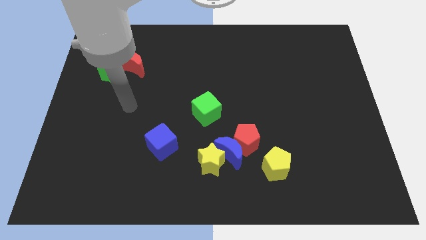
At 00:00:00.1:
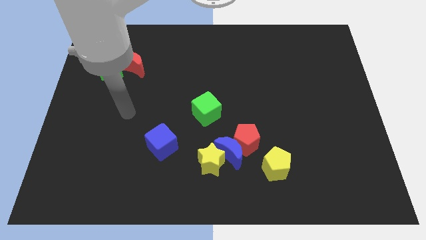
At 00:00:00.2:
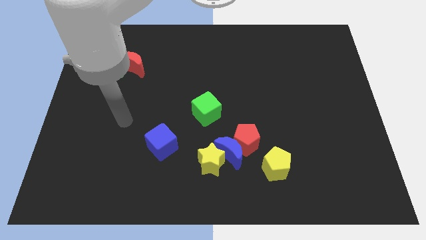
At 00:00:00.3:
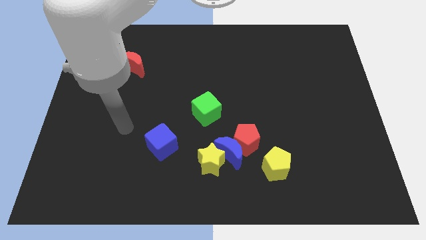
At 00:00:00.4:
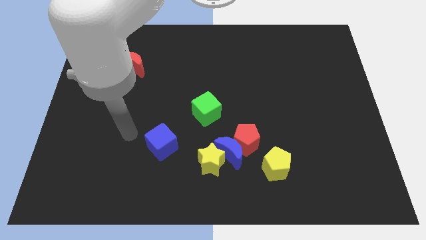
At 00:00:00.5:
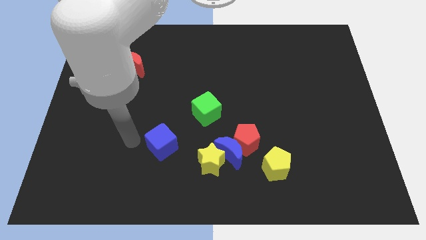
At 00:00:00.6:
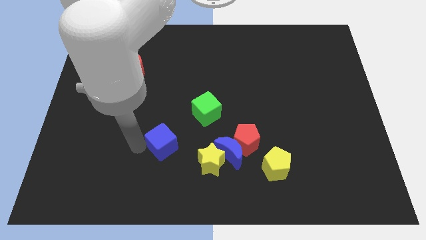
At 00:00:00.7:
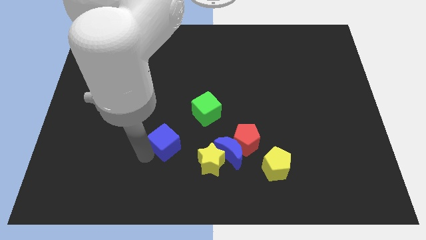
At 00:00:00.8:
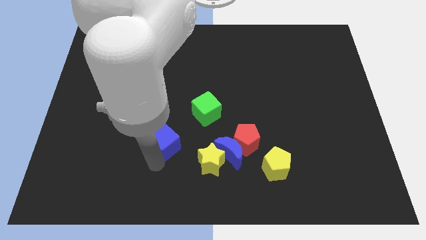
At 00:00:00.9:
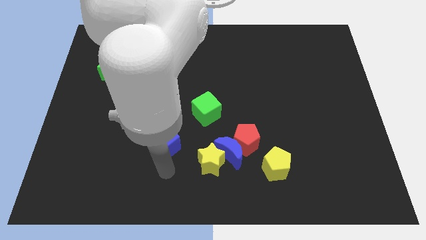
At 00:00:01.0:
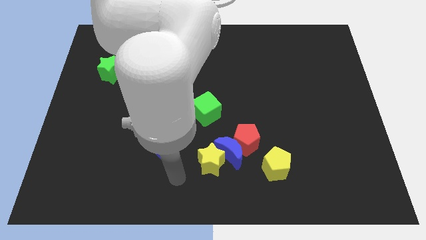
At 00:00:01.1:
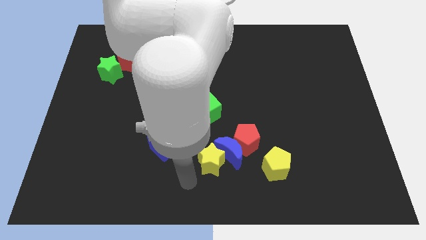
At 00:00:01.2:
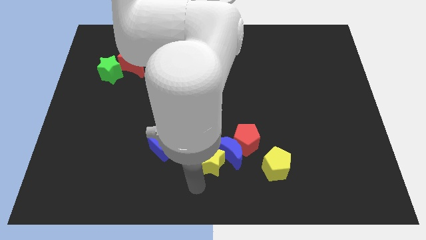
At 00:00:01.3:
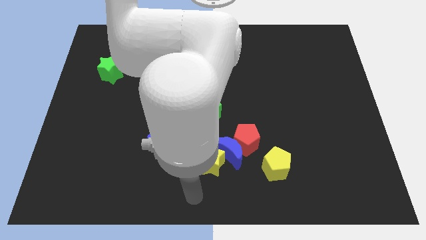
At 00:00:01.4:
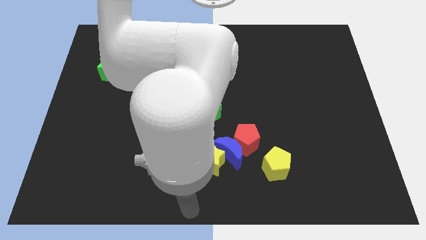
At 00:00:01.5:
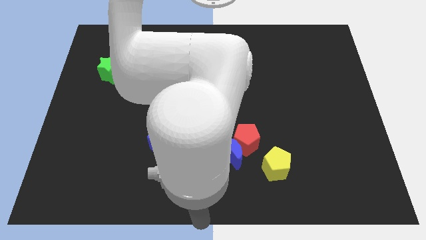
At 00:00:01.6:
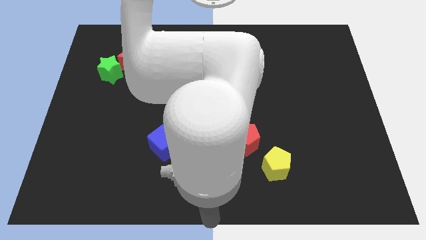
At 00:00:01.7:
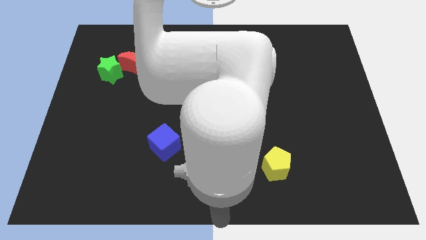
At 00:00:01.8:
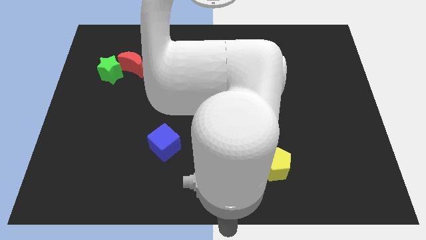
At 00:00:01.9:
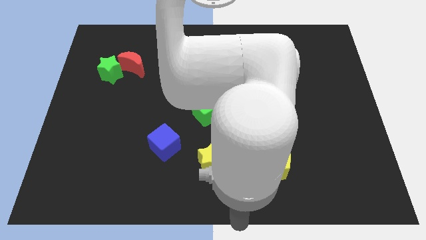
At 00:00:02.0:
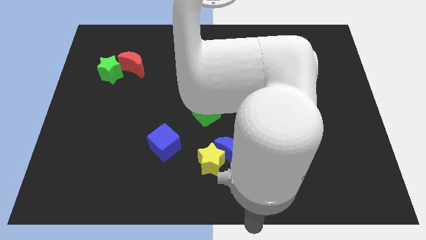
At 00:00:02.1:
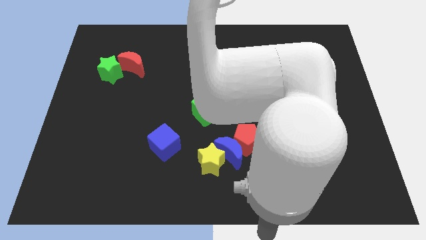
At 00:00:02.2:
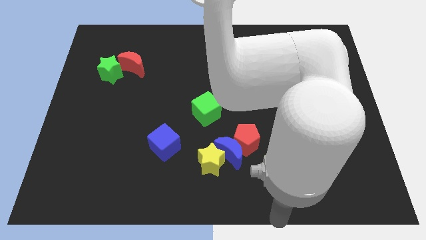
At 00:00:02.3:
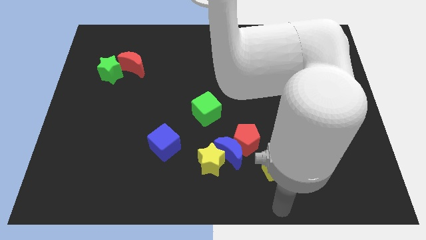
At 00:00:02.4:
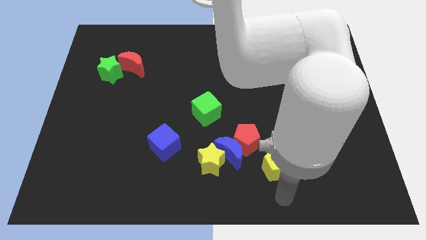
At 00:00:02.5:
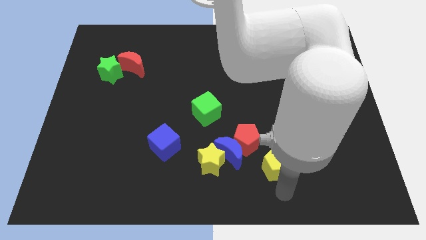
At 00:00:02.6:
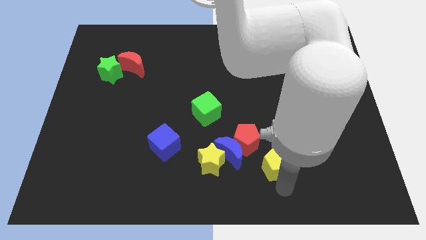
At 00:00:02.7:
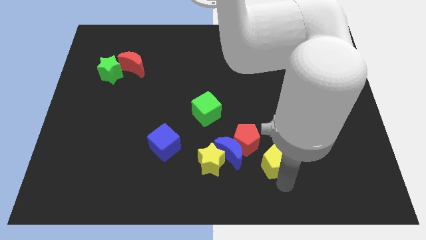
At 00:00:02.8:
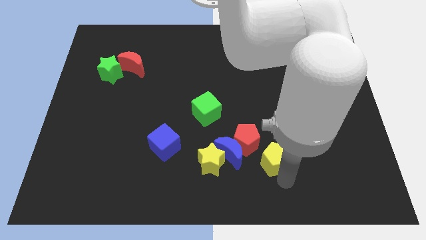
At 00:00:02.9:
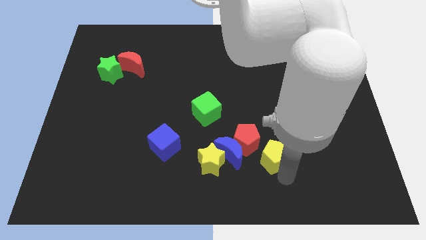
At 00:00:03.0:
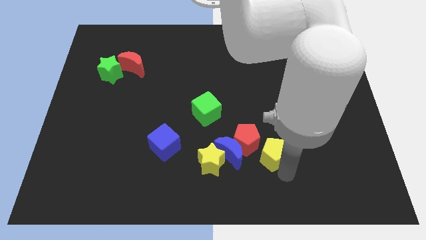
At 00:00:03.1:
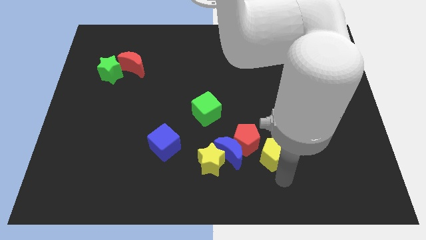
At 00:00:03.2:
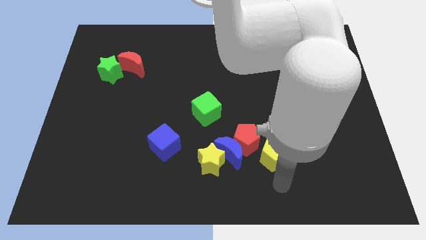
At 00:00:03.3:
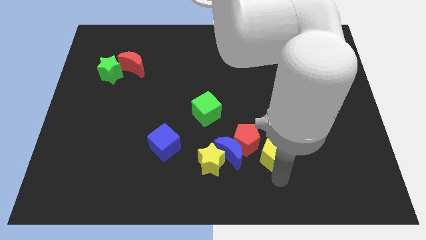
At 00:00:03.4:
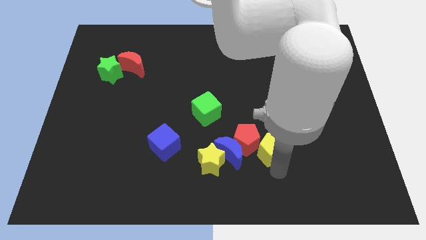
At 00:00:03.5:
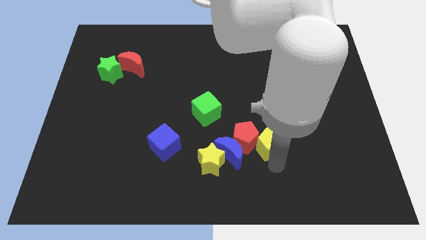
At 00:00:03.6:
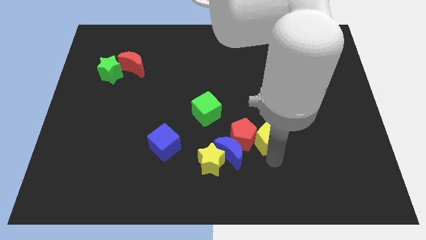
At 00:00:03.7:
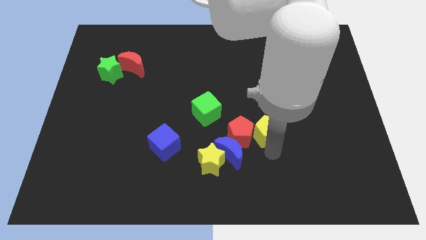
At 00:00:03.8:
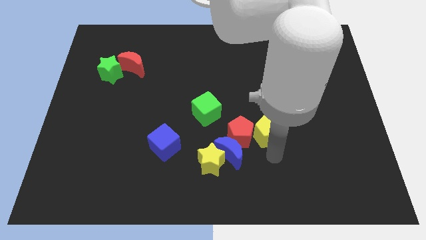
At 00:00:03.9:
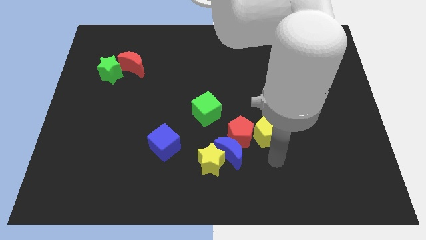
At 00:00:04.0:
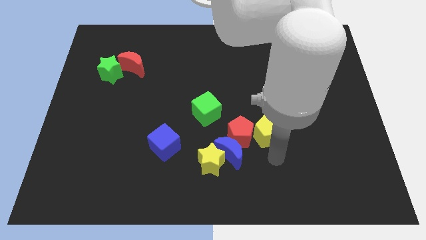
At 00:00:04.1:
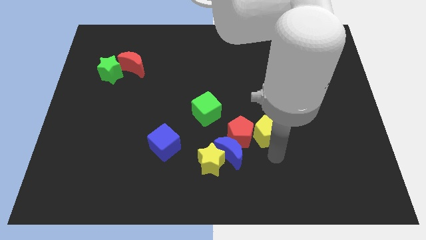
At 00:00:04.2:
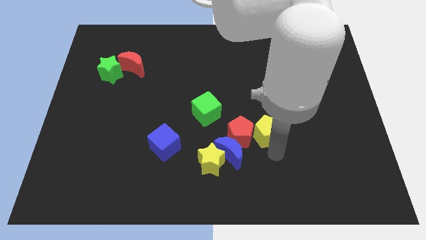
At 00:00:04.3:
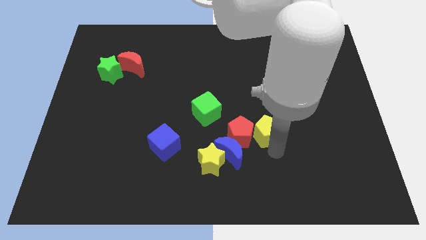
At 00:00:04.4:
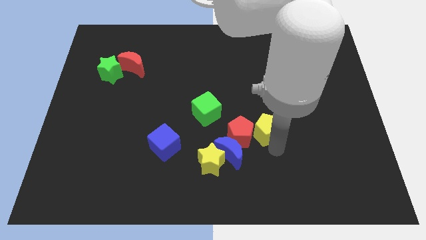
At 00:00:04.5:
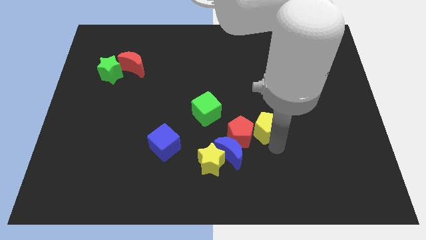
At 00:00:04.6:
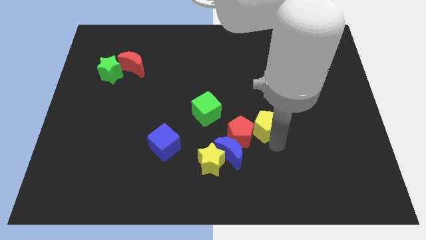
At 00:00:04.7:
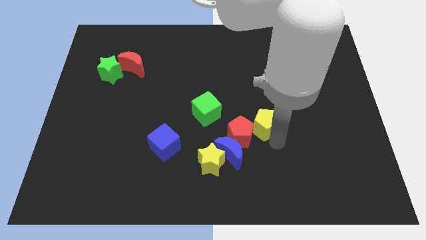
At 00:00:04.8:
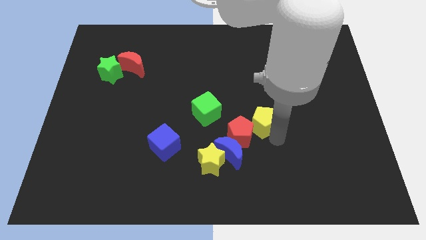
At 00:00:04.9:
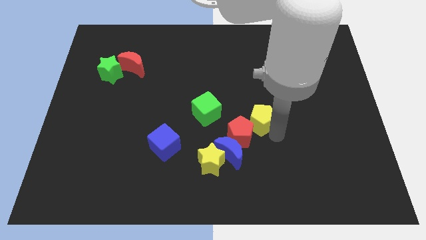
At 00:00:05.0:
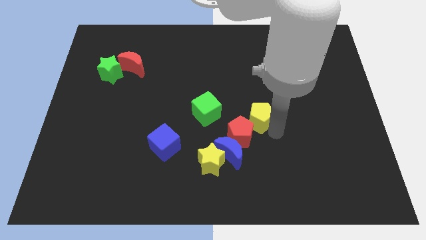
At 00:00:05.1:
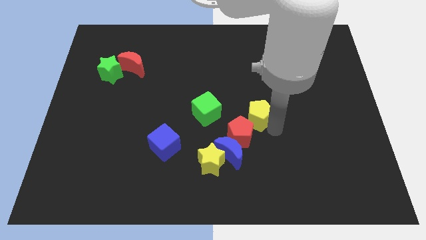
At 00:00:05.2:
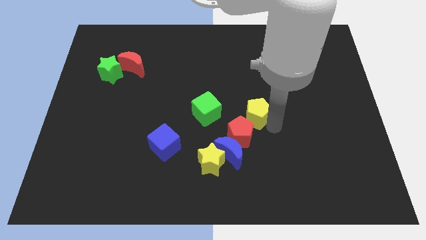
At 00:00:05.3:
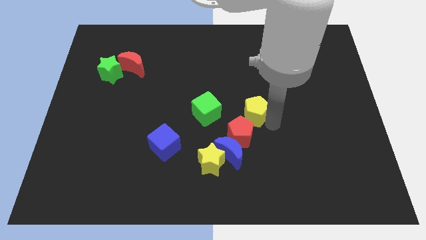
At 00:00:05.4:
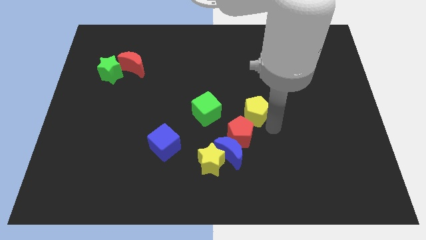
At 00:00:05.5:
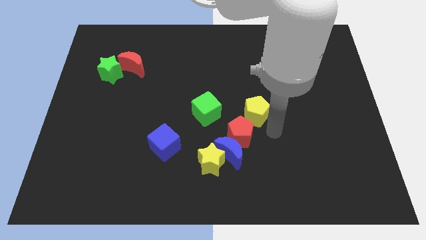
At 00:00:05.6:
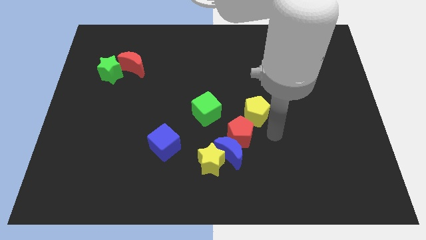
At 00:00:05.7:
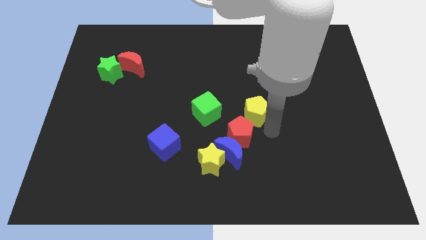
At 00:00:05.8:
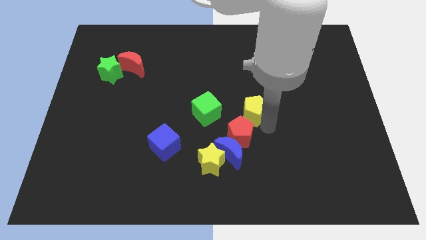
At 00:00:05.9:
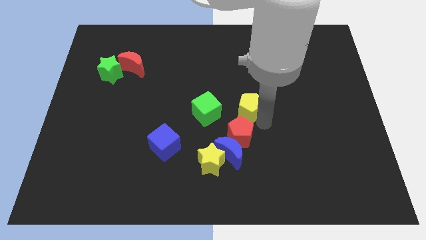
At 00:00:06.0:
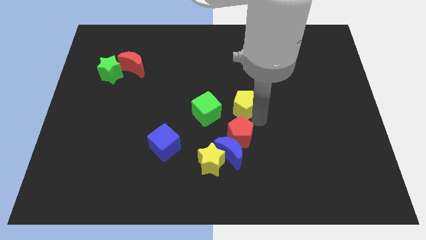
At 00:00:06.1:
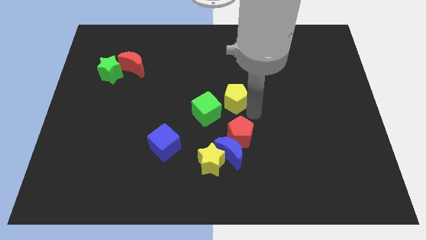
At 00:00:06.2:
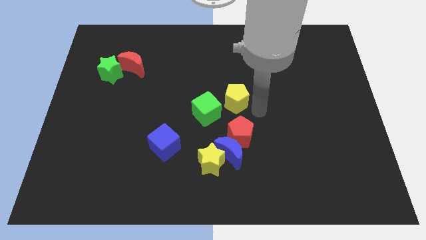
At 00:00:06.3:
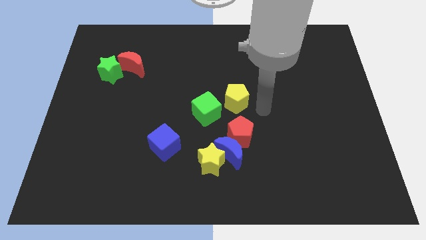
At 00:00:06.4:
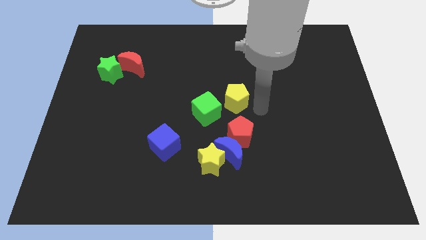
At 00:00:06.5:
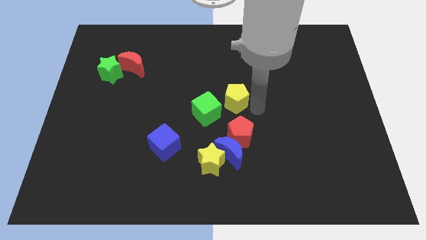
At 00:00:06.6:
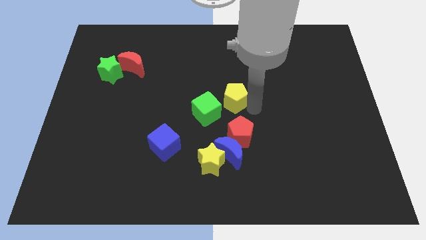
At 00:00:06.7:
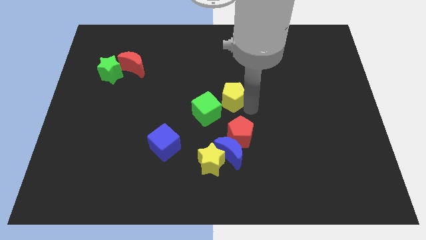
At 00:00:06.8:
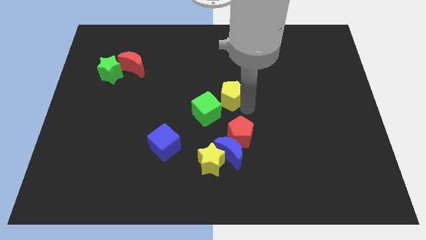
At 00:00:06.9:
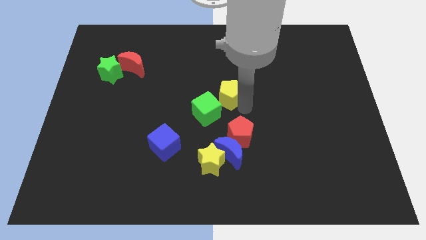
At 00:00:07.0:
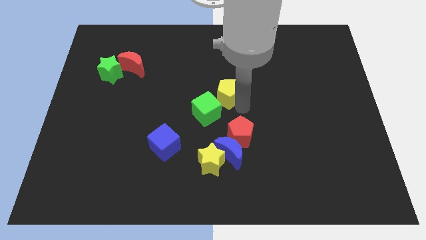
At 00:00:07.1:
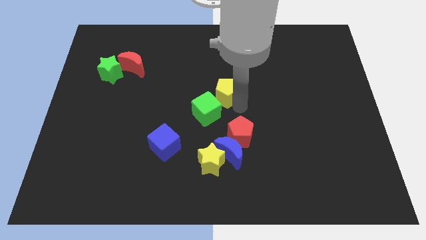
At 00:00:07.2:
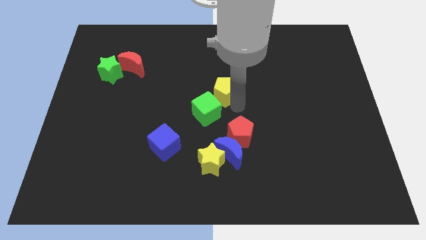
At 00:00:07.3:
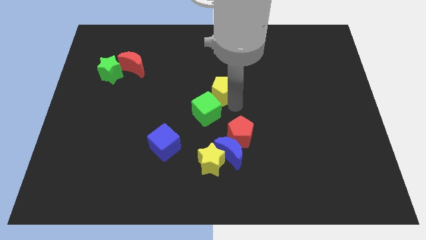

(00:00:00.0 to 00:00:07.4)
move the yellow pentagon upwards and then left

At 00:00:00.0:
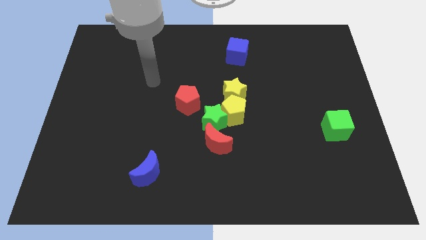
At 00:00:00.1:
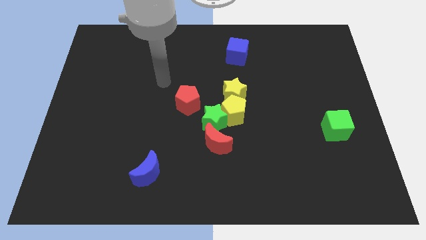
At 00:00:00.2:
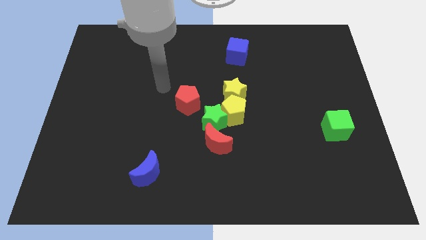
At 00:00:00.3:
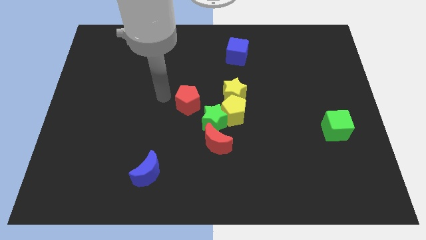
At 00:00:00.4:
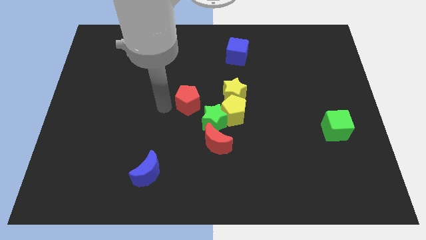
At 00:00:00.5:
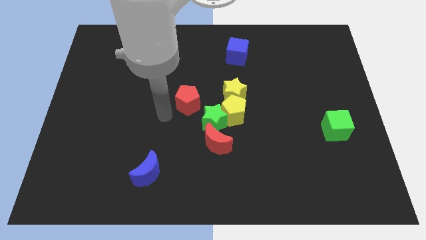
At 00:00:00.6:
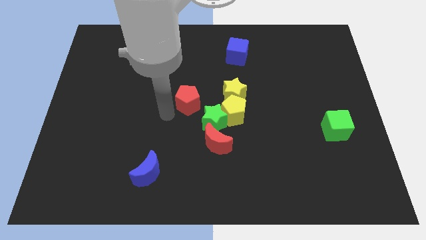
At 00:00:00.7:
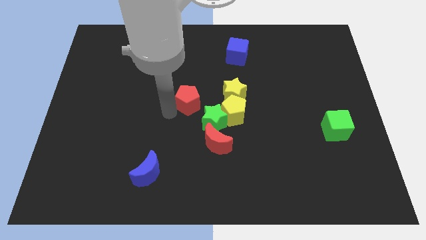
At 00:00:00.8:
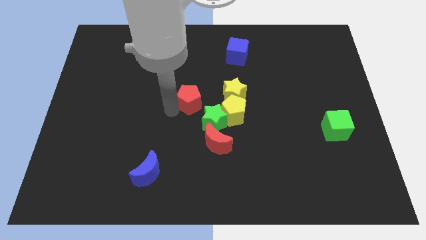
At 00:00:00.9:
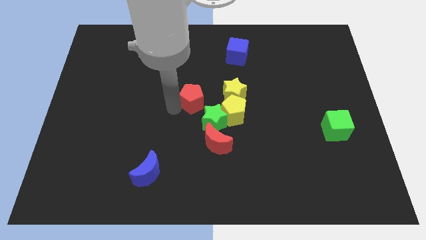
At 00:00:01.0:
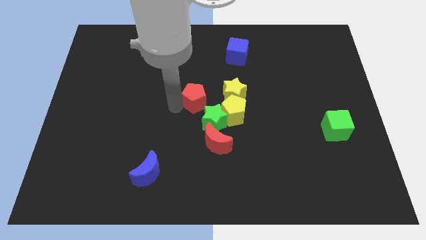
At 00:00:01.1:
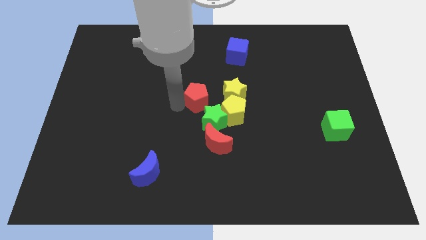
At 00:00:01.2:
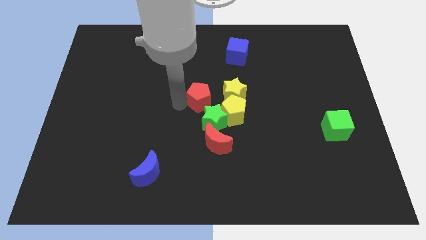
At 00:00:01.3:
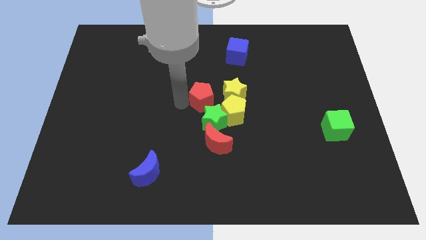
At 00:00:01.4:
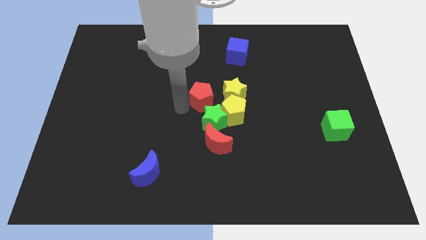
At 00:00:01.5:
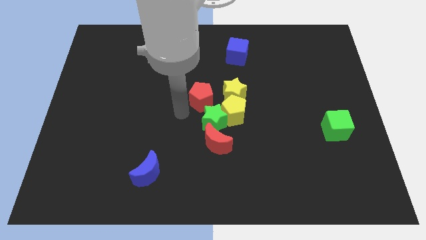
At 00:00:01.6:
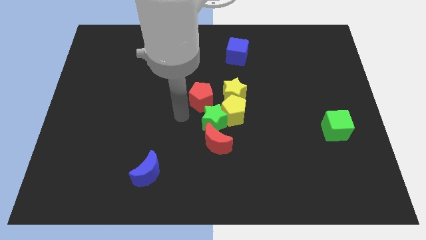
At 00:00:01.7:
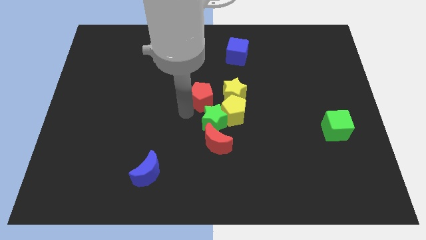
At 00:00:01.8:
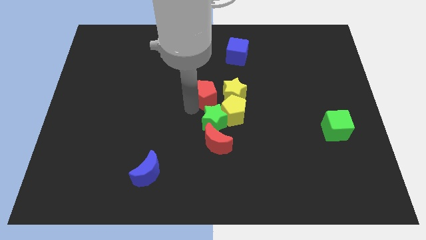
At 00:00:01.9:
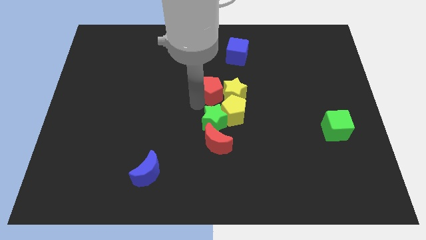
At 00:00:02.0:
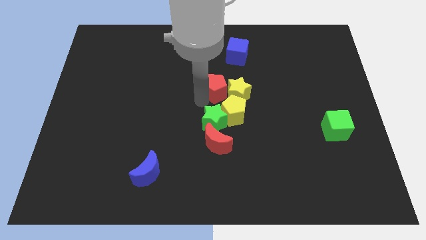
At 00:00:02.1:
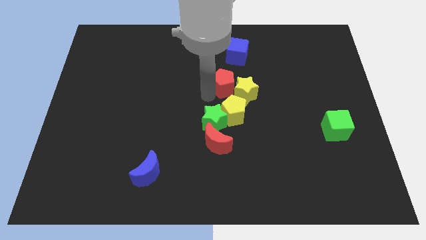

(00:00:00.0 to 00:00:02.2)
slightly move the red pentagon right
